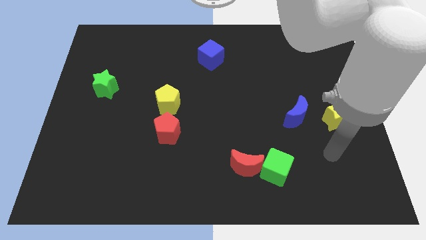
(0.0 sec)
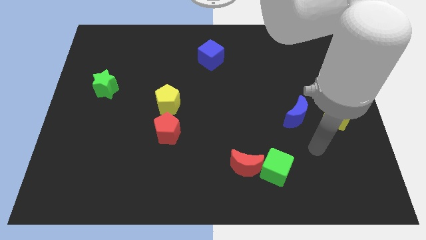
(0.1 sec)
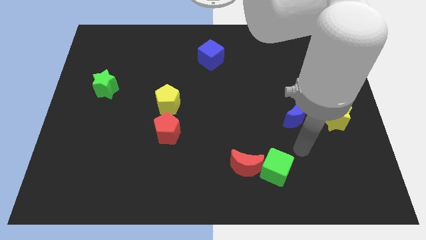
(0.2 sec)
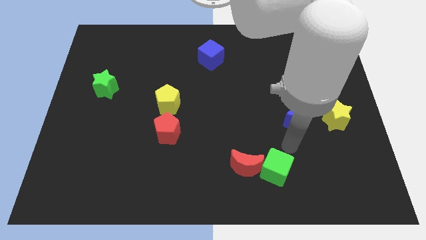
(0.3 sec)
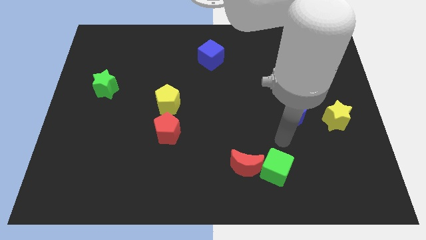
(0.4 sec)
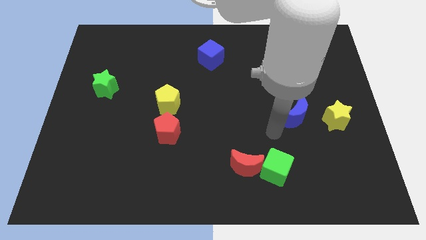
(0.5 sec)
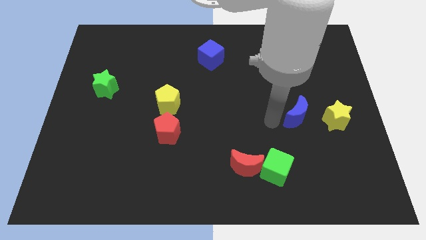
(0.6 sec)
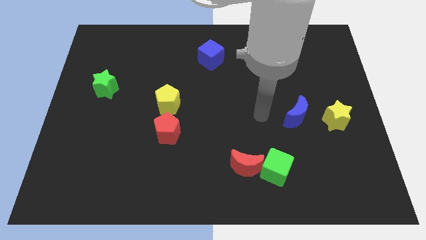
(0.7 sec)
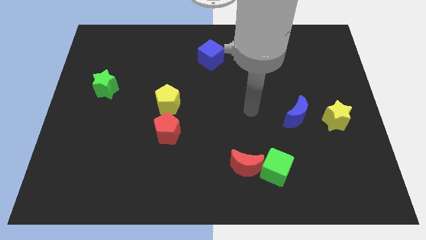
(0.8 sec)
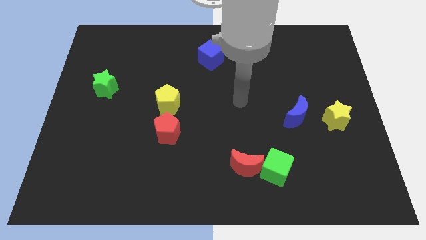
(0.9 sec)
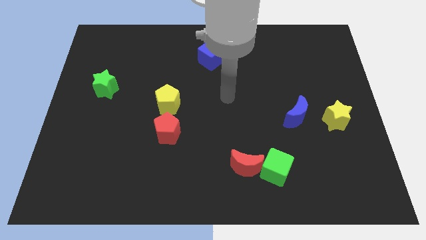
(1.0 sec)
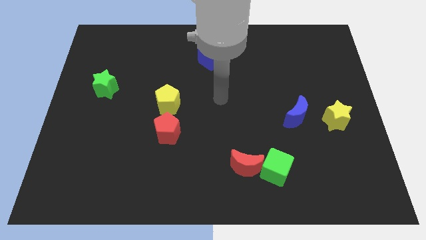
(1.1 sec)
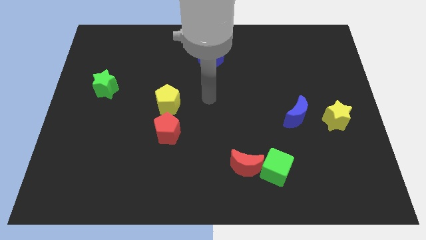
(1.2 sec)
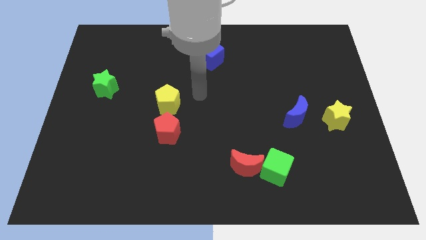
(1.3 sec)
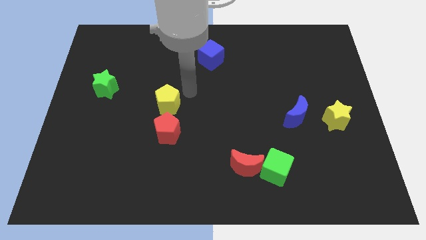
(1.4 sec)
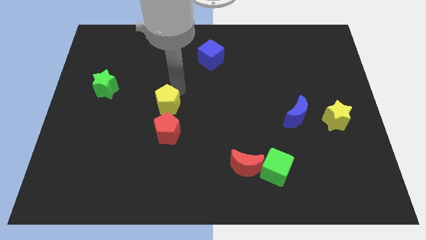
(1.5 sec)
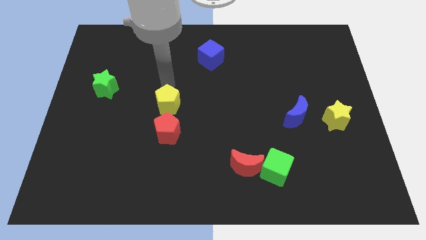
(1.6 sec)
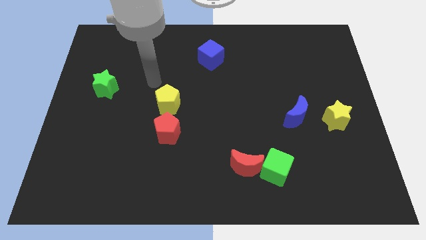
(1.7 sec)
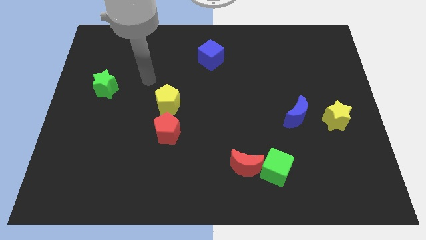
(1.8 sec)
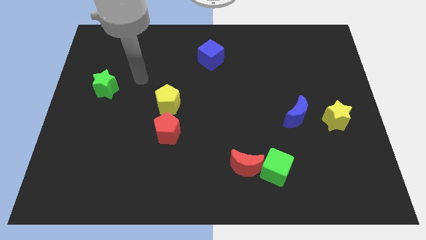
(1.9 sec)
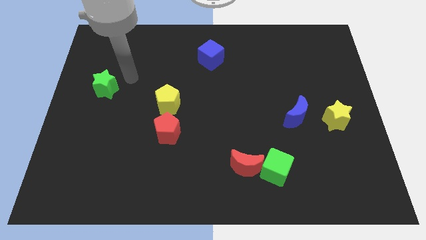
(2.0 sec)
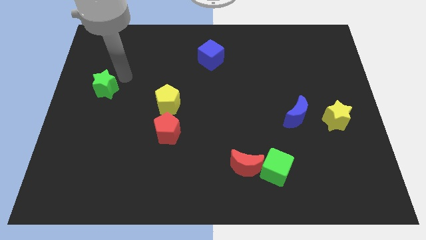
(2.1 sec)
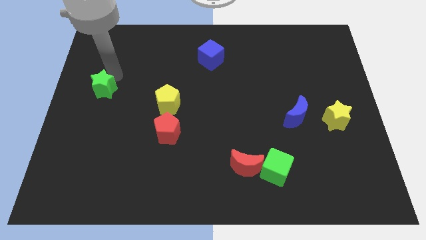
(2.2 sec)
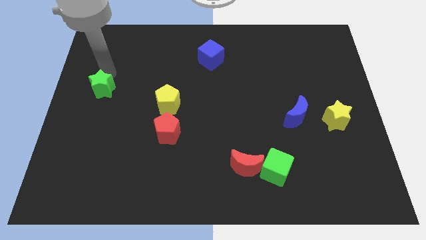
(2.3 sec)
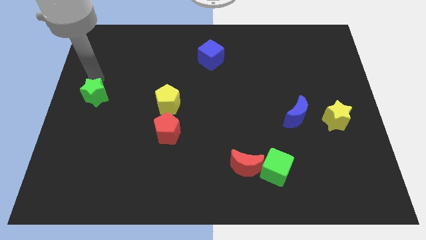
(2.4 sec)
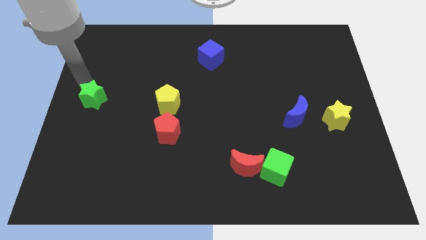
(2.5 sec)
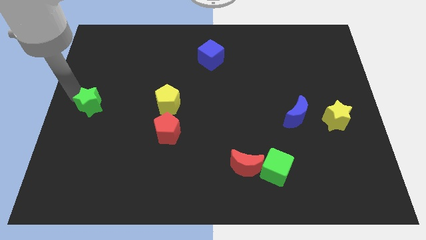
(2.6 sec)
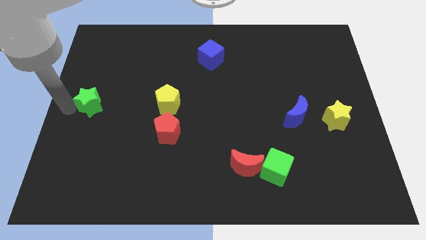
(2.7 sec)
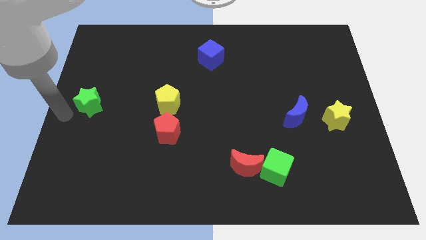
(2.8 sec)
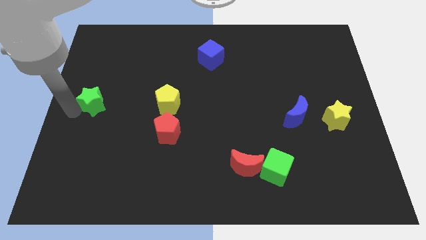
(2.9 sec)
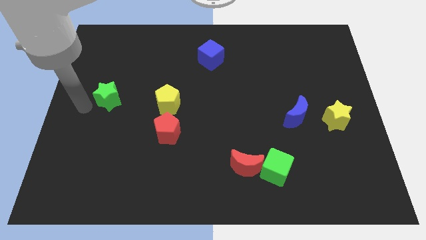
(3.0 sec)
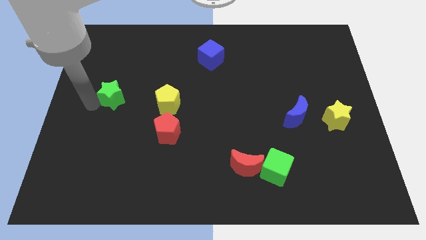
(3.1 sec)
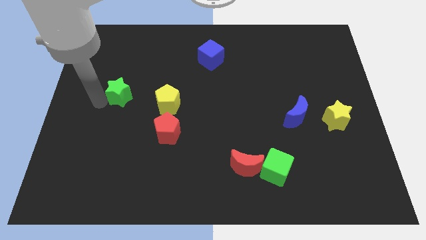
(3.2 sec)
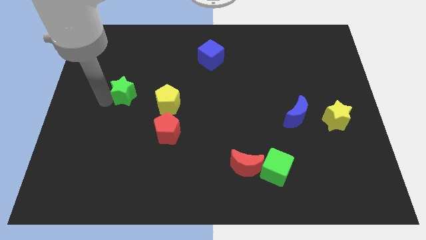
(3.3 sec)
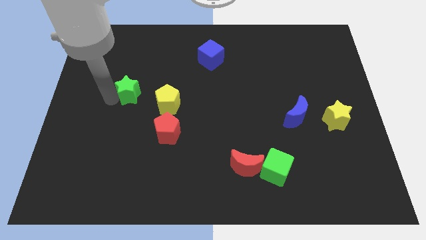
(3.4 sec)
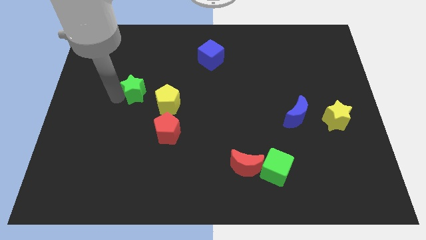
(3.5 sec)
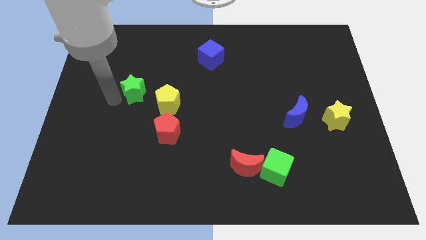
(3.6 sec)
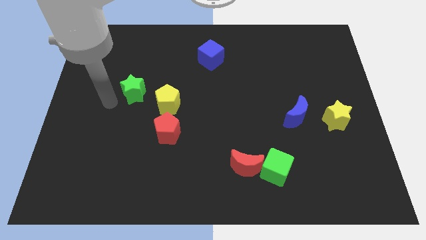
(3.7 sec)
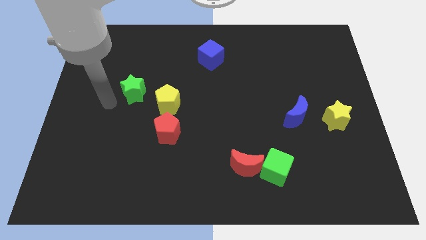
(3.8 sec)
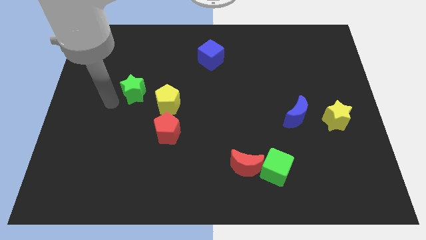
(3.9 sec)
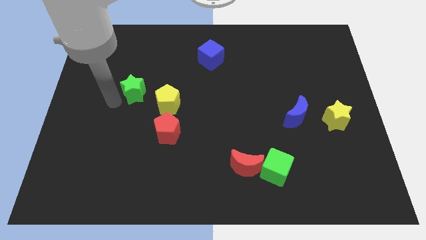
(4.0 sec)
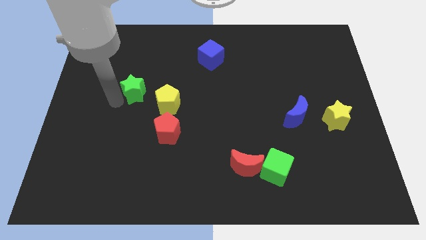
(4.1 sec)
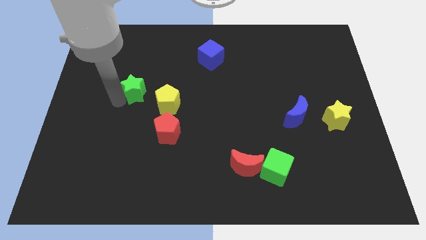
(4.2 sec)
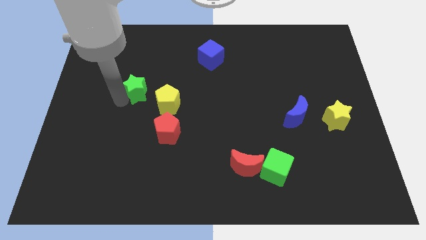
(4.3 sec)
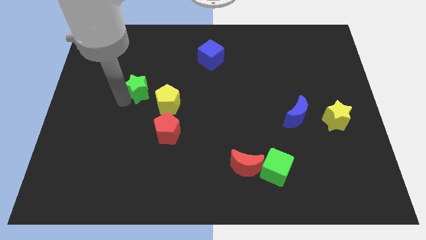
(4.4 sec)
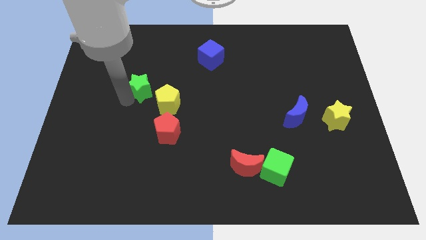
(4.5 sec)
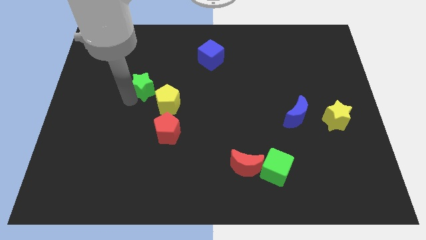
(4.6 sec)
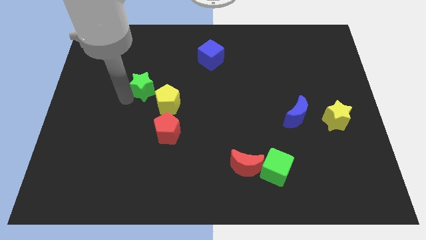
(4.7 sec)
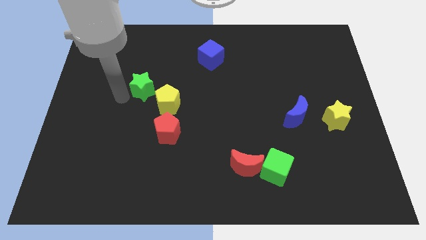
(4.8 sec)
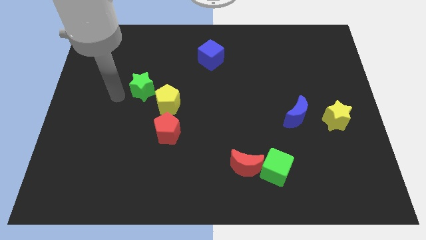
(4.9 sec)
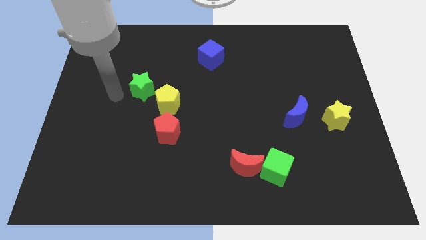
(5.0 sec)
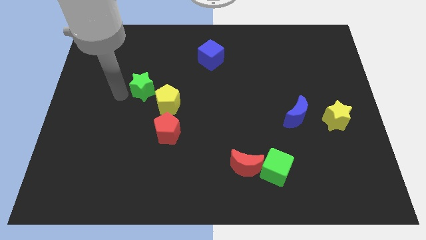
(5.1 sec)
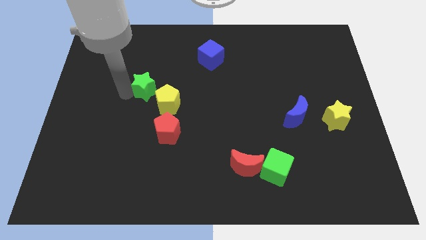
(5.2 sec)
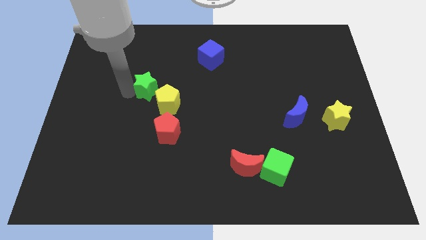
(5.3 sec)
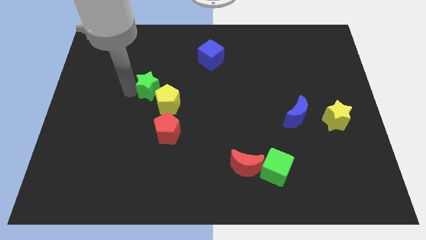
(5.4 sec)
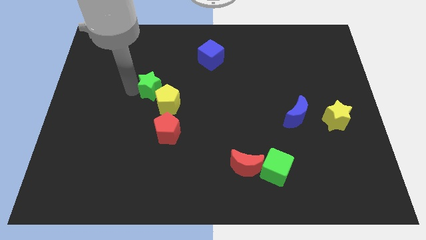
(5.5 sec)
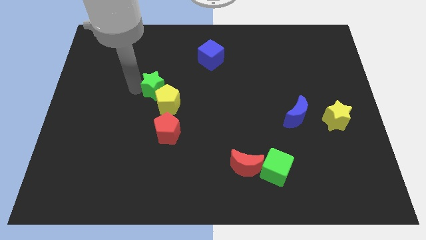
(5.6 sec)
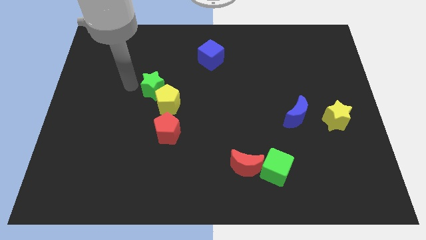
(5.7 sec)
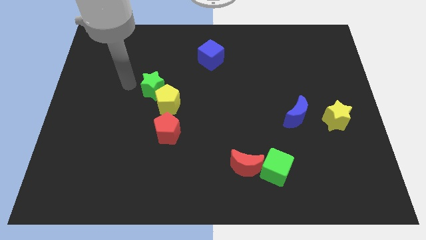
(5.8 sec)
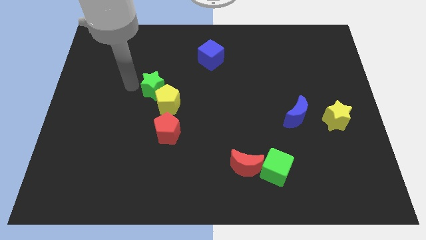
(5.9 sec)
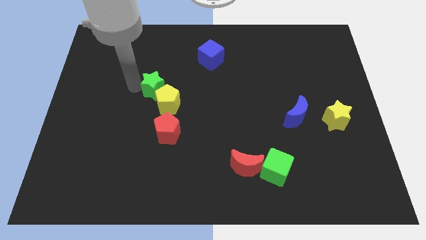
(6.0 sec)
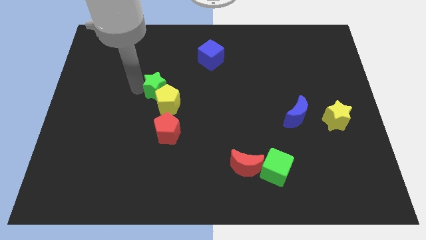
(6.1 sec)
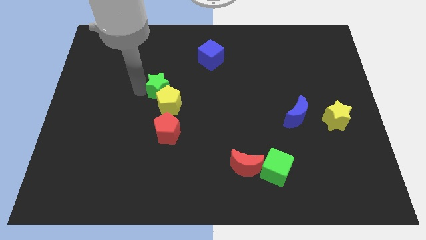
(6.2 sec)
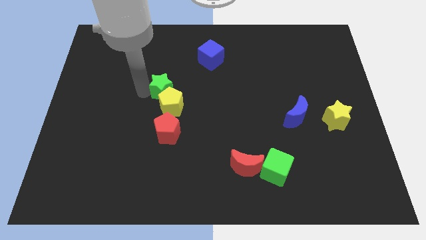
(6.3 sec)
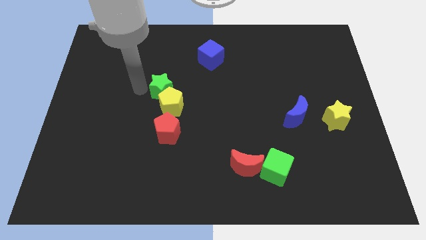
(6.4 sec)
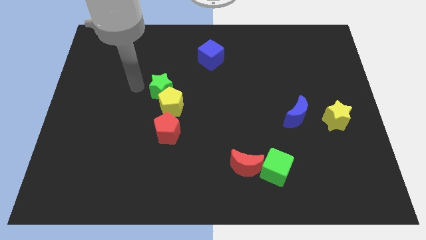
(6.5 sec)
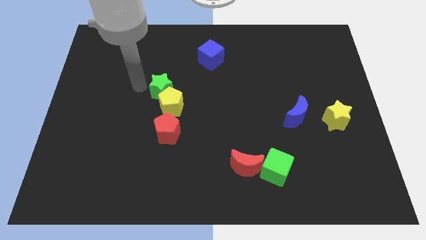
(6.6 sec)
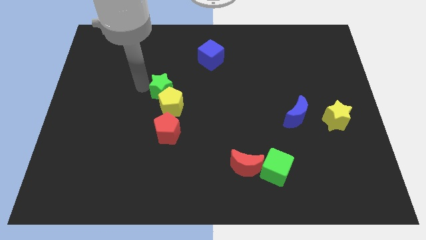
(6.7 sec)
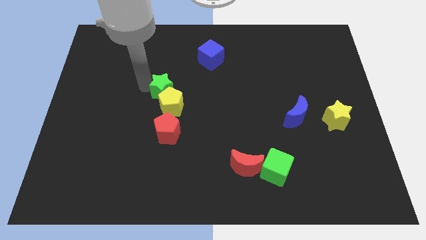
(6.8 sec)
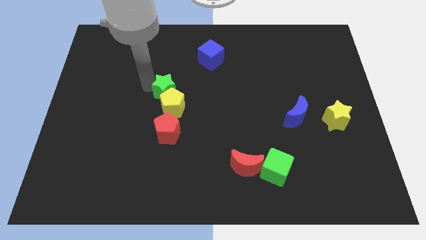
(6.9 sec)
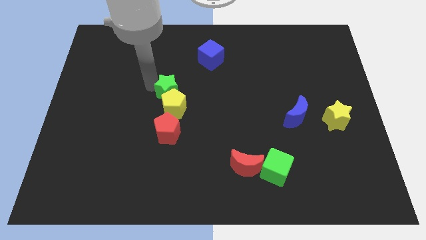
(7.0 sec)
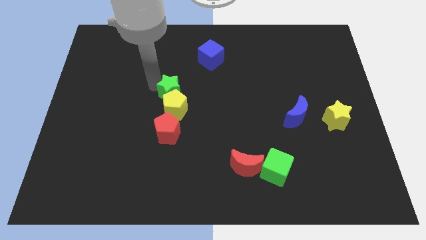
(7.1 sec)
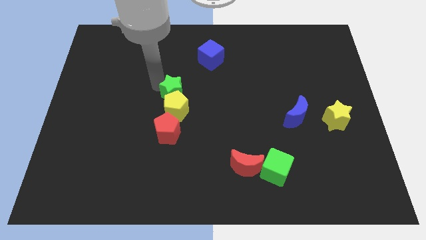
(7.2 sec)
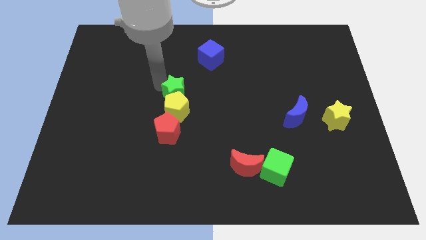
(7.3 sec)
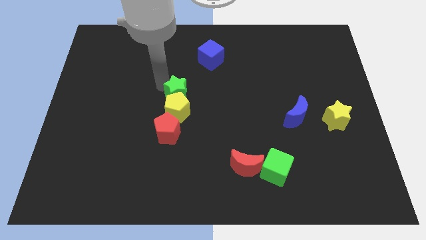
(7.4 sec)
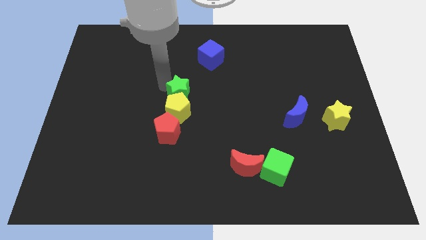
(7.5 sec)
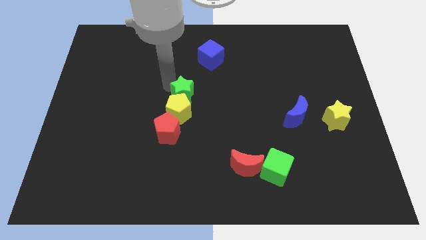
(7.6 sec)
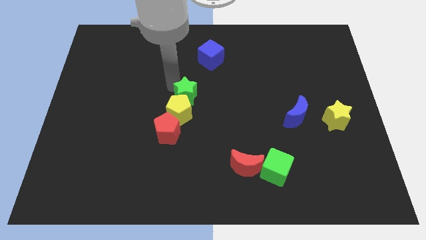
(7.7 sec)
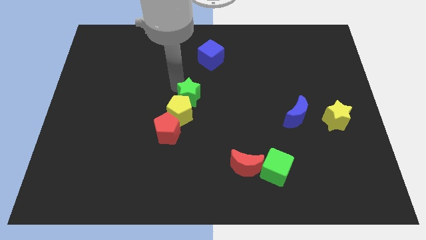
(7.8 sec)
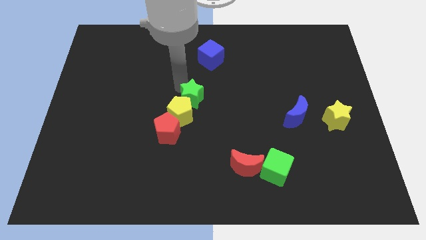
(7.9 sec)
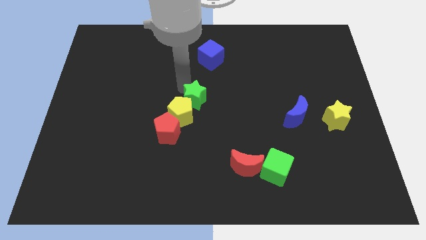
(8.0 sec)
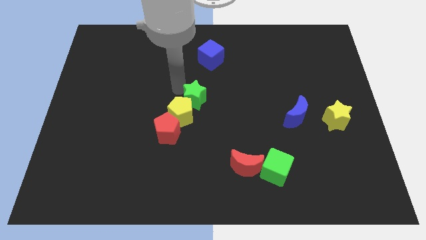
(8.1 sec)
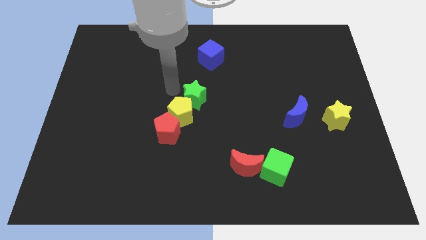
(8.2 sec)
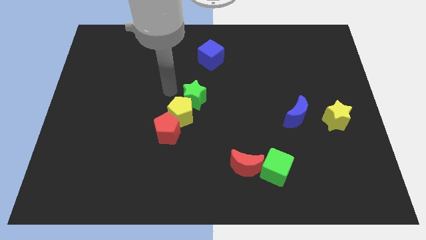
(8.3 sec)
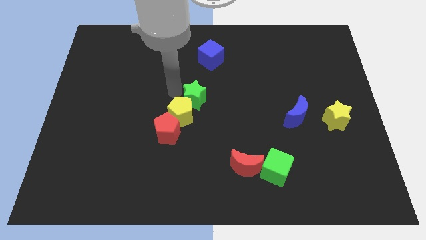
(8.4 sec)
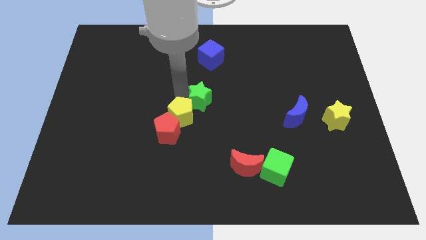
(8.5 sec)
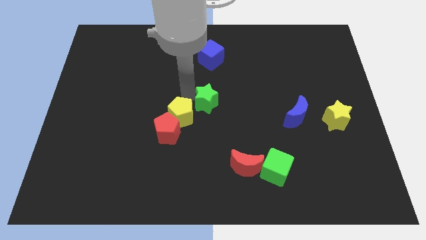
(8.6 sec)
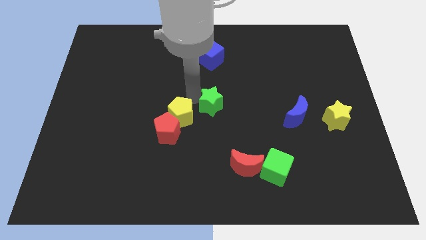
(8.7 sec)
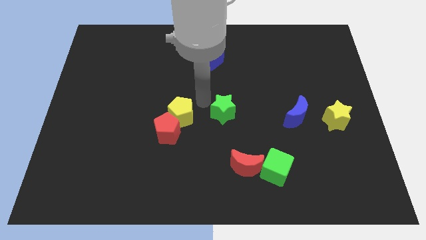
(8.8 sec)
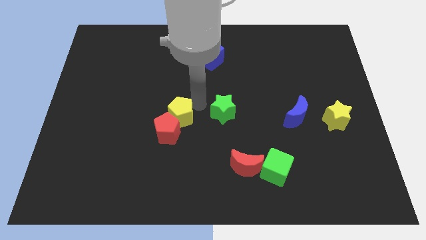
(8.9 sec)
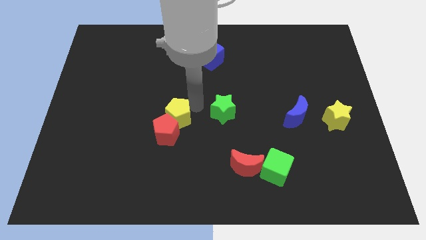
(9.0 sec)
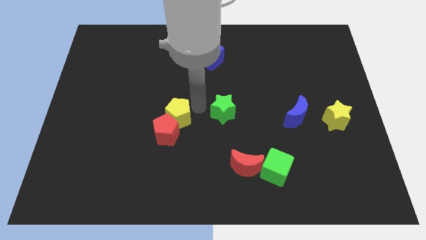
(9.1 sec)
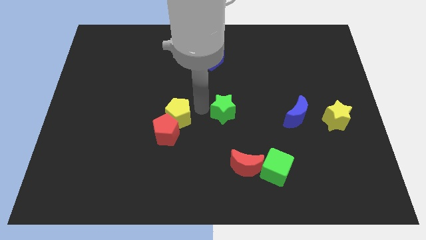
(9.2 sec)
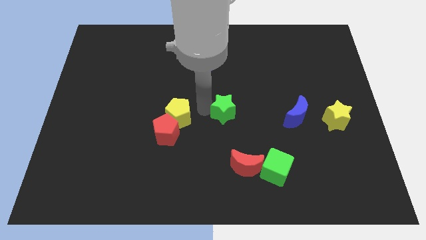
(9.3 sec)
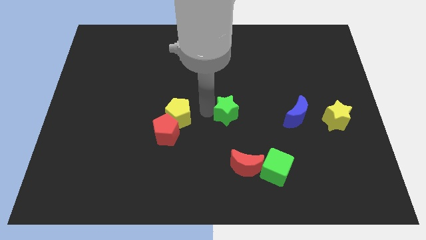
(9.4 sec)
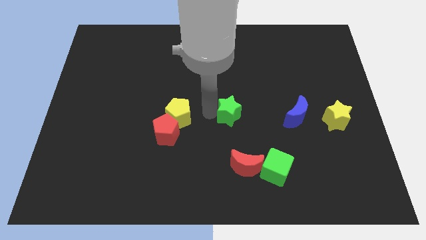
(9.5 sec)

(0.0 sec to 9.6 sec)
put the green star left of the blue moon
